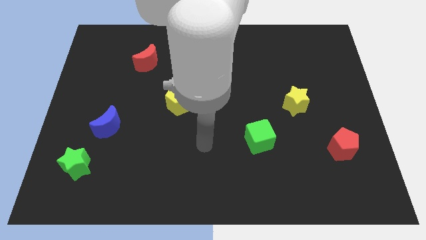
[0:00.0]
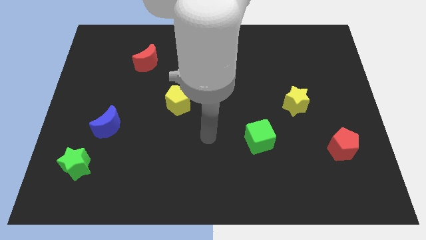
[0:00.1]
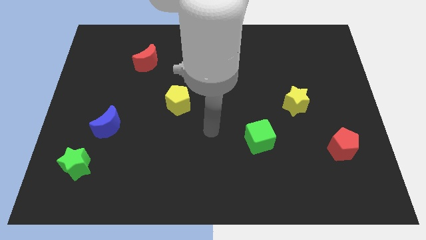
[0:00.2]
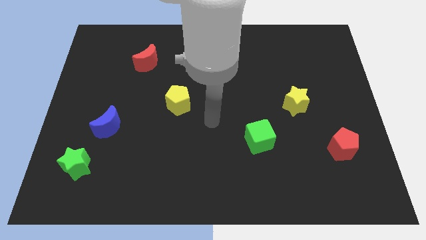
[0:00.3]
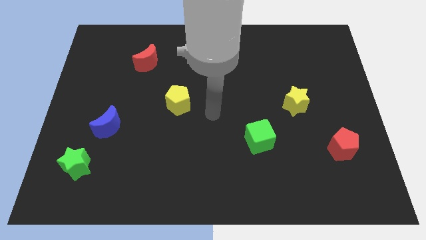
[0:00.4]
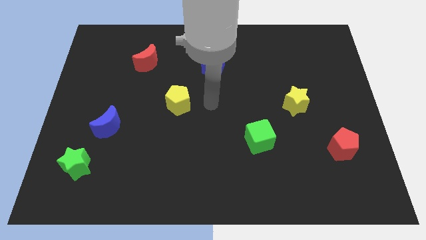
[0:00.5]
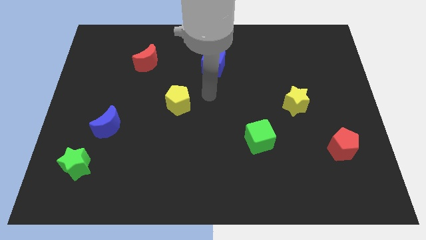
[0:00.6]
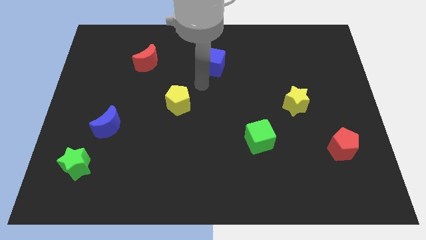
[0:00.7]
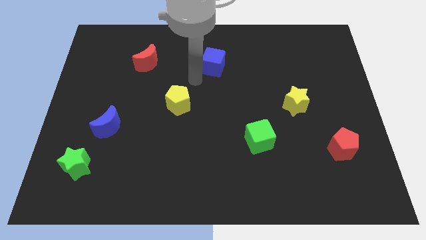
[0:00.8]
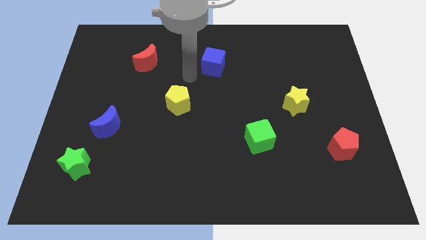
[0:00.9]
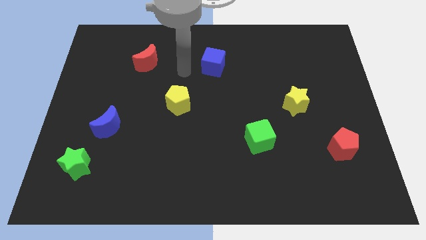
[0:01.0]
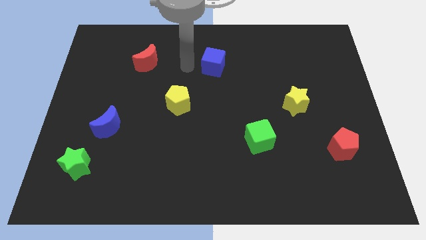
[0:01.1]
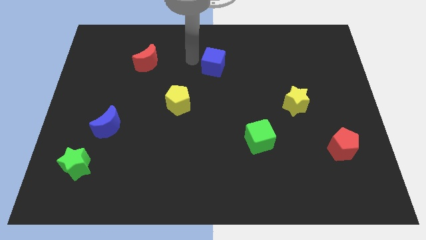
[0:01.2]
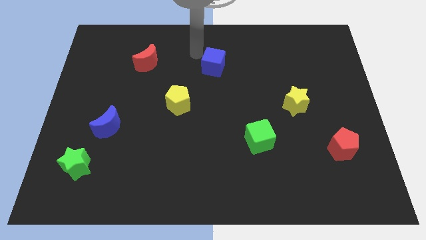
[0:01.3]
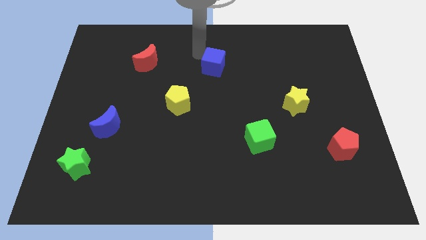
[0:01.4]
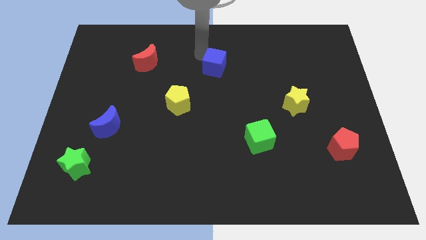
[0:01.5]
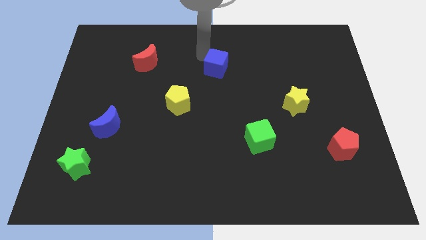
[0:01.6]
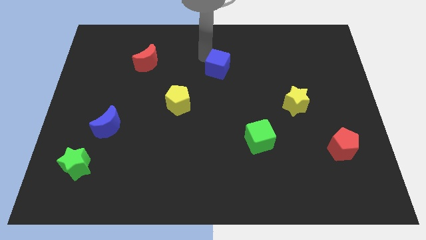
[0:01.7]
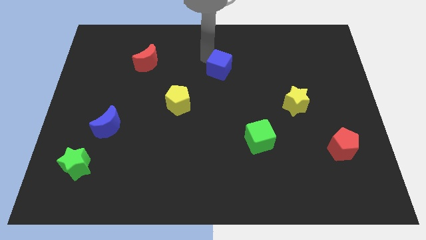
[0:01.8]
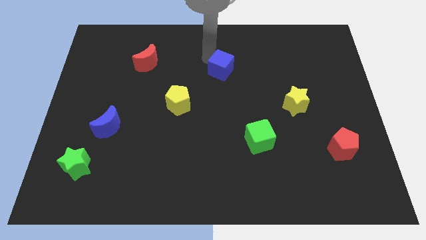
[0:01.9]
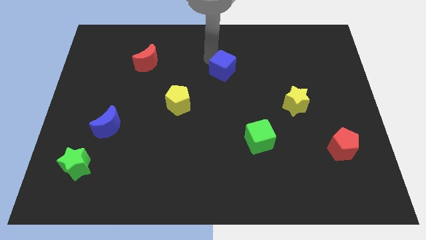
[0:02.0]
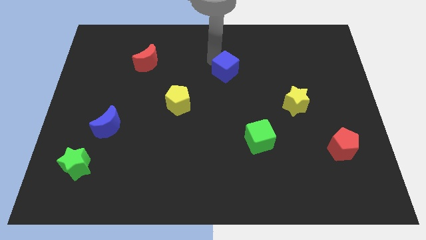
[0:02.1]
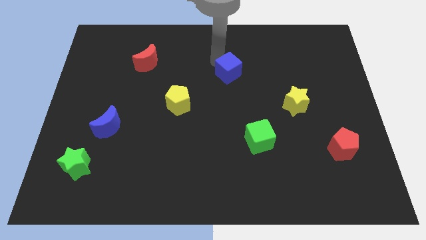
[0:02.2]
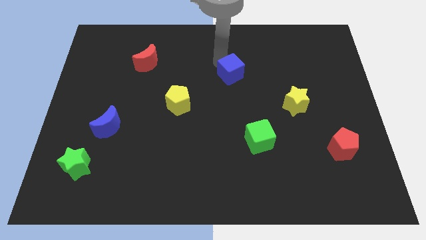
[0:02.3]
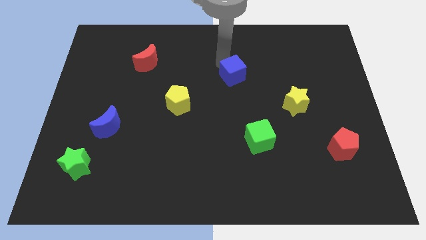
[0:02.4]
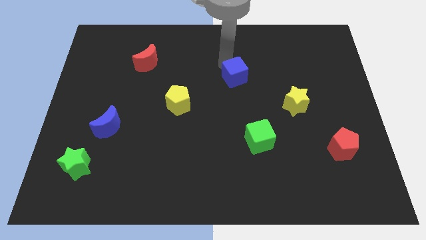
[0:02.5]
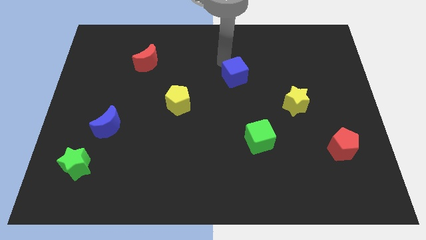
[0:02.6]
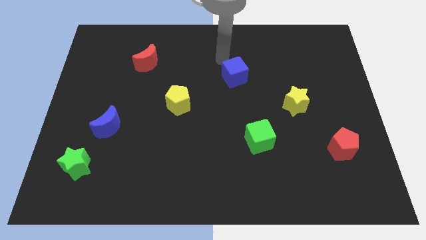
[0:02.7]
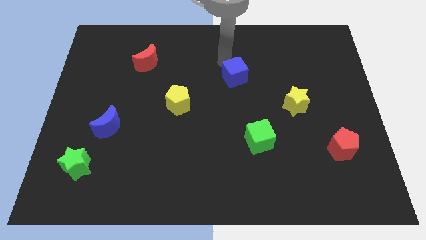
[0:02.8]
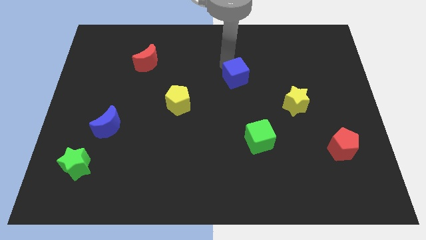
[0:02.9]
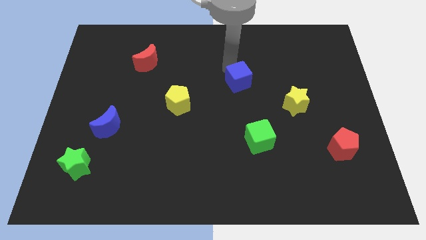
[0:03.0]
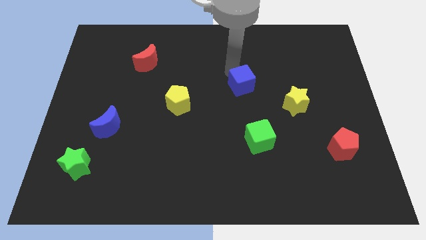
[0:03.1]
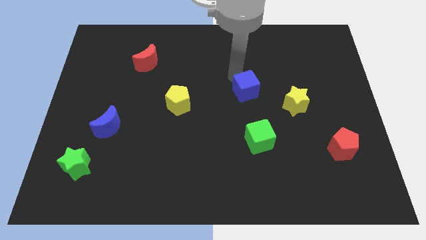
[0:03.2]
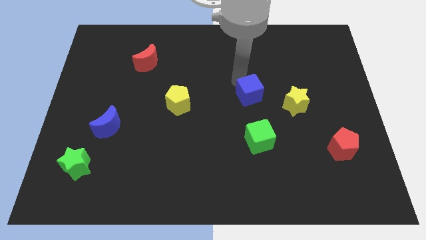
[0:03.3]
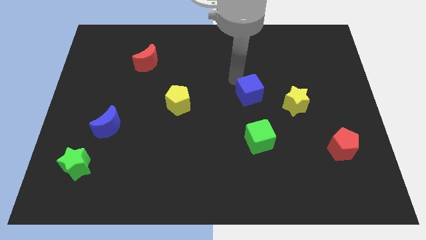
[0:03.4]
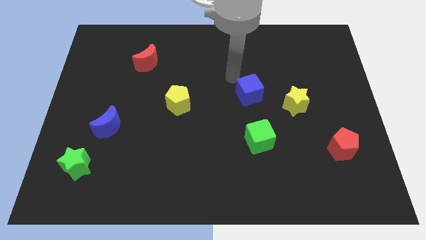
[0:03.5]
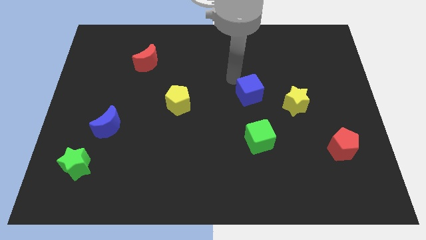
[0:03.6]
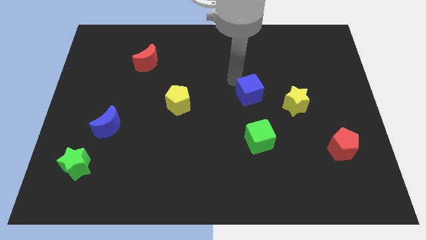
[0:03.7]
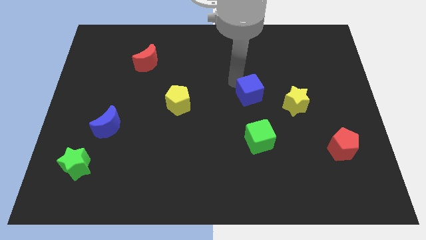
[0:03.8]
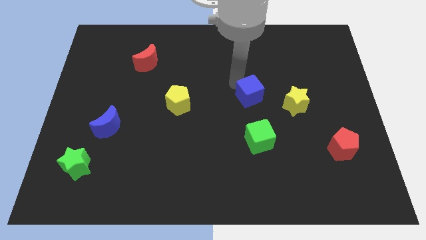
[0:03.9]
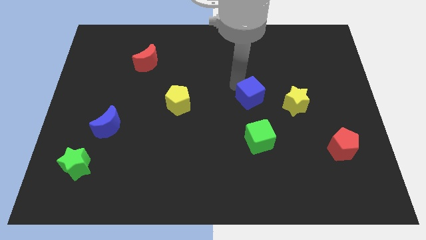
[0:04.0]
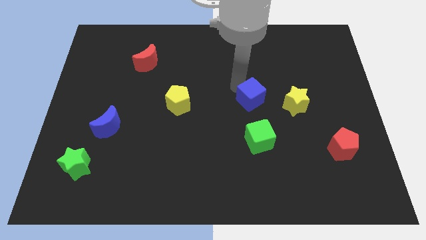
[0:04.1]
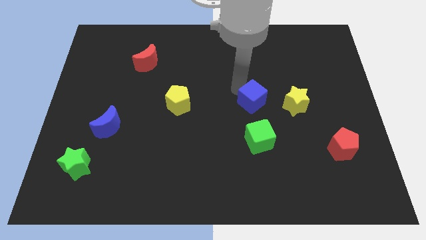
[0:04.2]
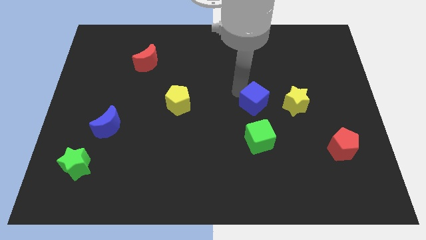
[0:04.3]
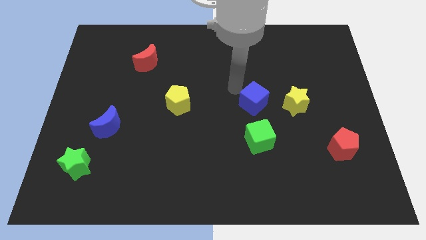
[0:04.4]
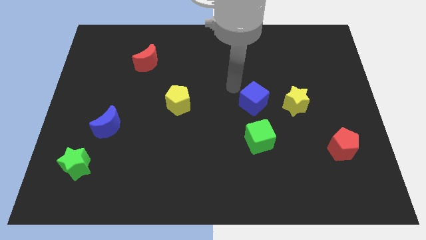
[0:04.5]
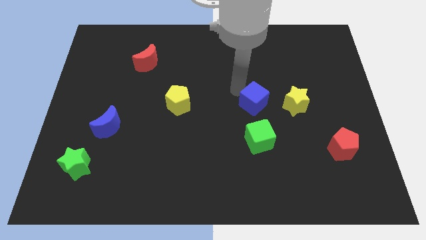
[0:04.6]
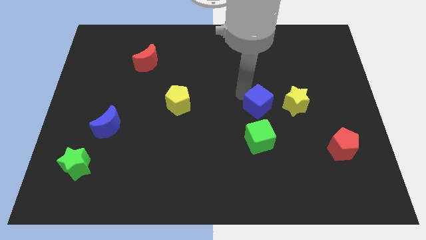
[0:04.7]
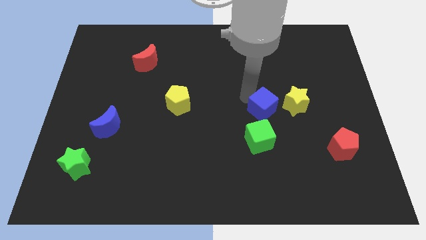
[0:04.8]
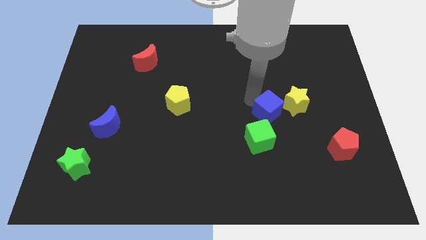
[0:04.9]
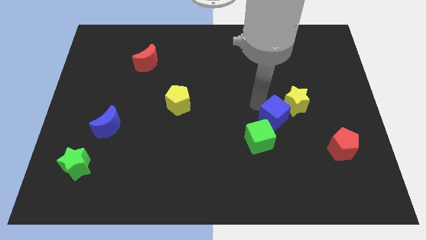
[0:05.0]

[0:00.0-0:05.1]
push the blue cube downwards and to the right diagonally

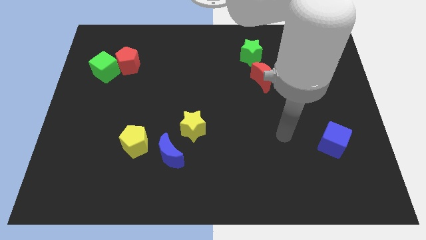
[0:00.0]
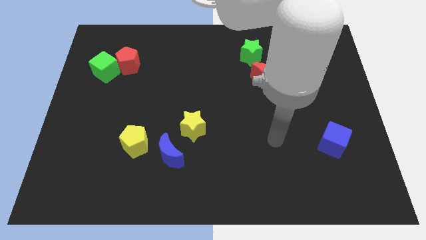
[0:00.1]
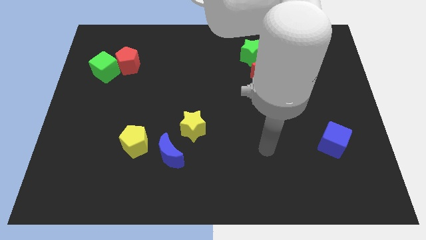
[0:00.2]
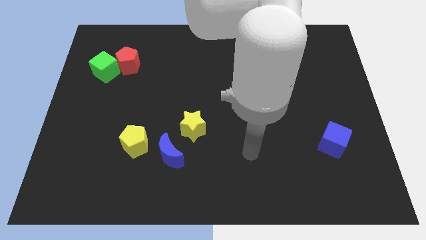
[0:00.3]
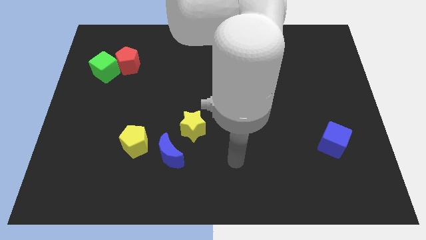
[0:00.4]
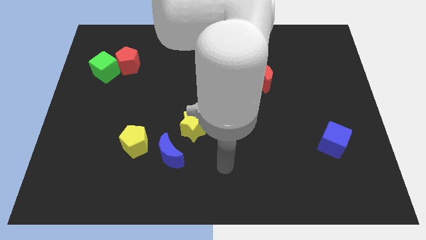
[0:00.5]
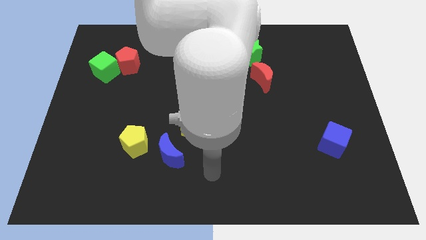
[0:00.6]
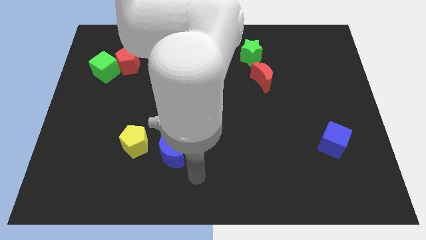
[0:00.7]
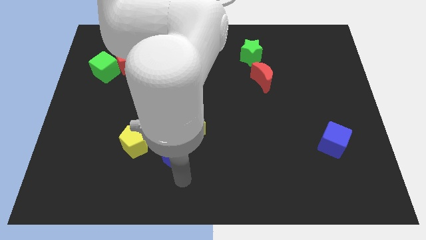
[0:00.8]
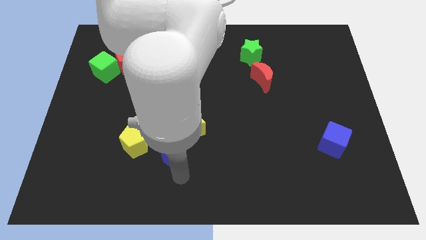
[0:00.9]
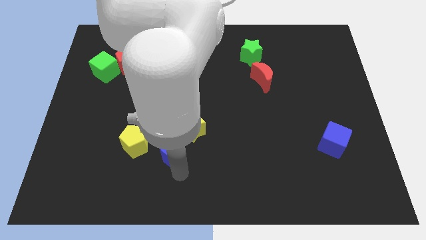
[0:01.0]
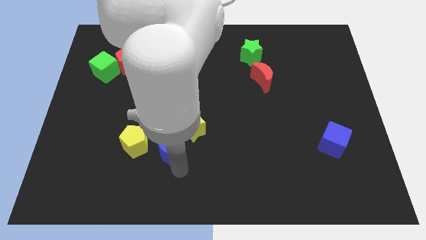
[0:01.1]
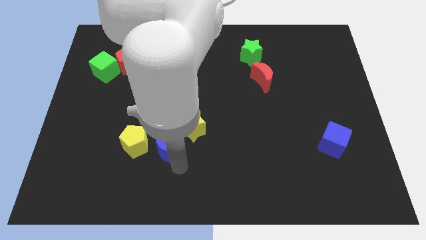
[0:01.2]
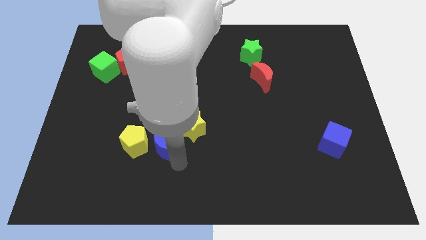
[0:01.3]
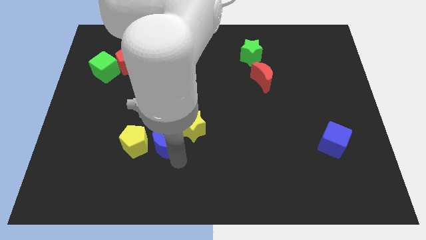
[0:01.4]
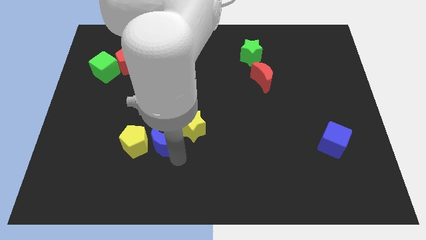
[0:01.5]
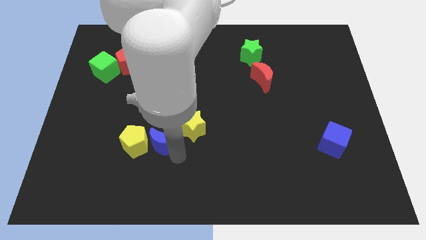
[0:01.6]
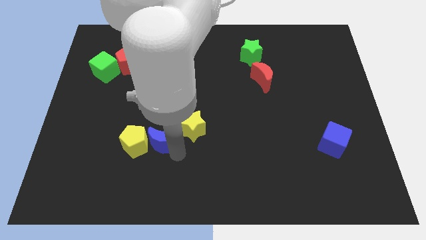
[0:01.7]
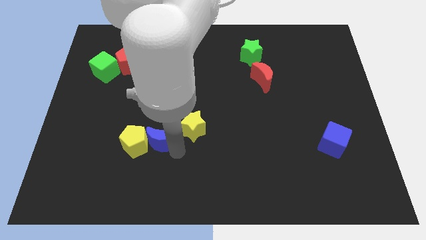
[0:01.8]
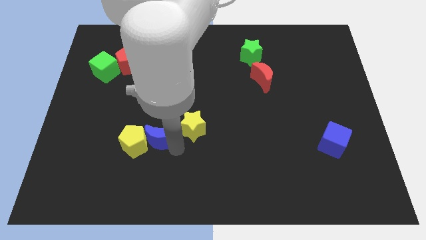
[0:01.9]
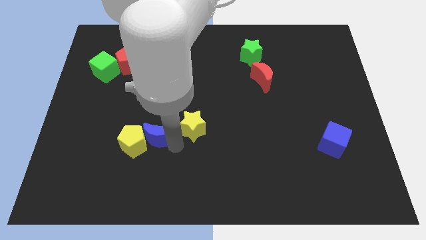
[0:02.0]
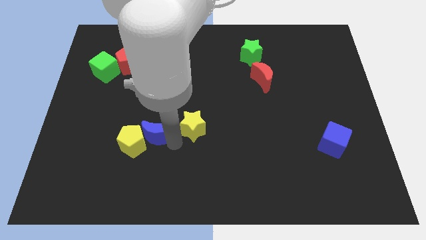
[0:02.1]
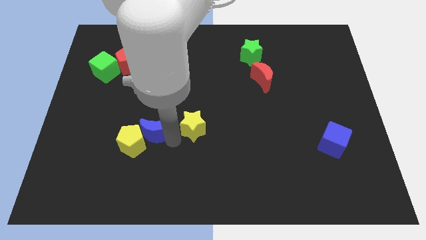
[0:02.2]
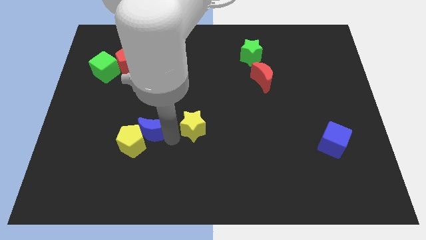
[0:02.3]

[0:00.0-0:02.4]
slide the blue moon diagonally upwards and left a little
